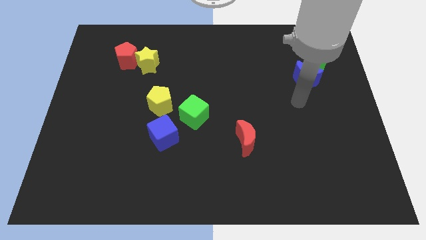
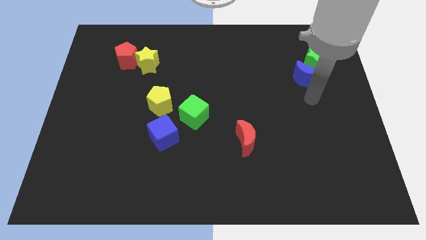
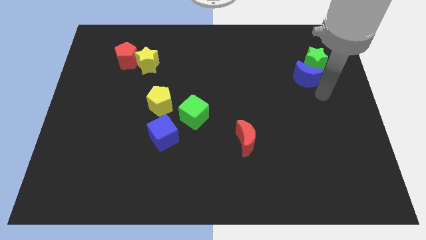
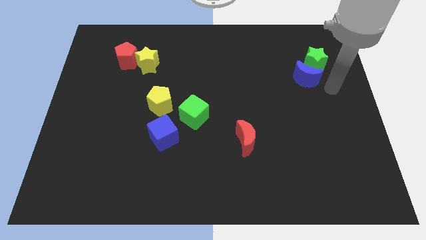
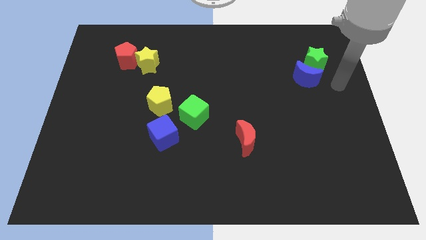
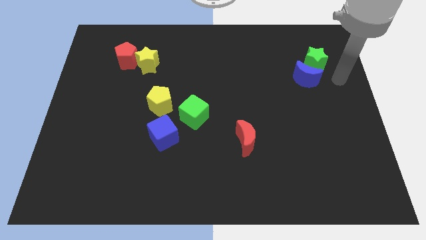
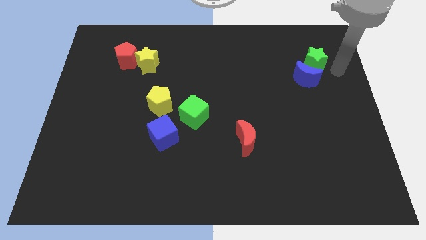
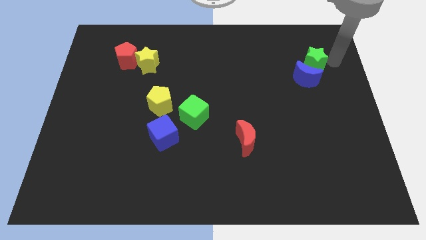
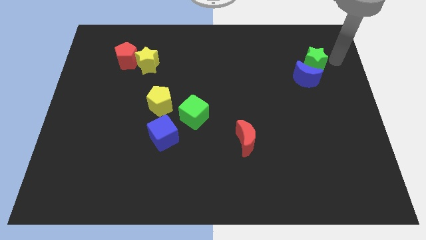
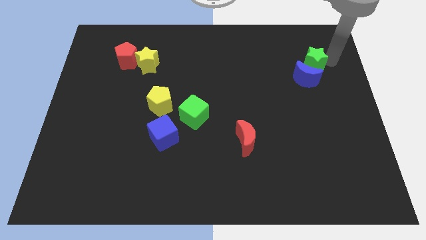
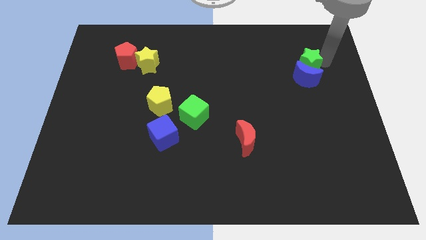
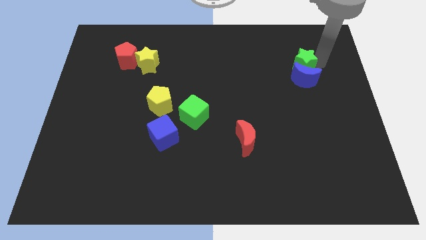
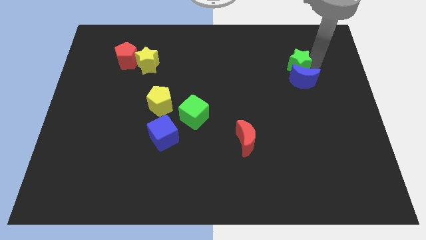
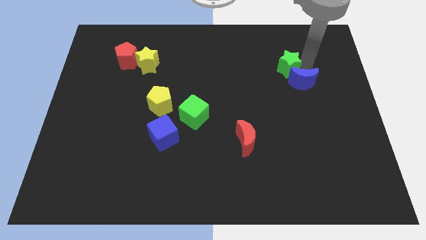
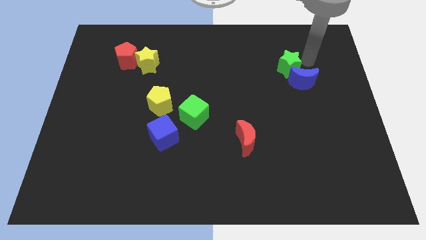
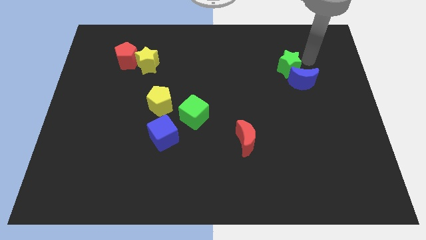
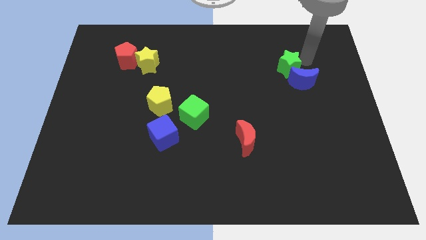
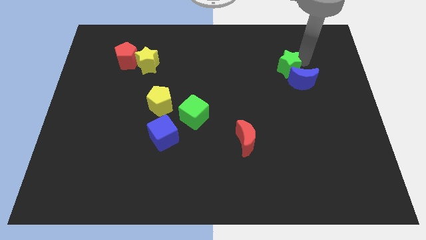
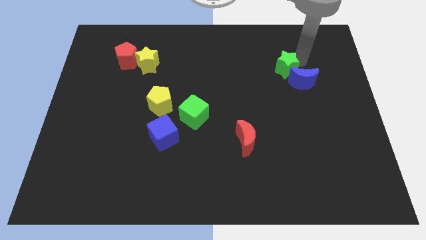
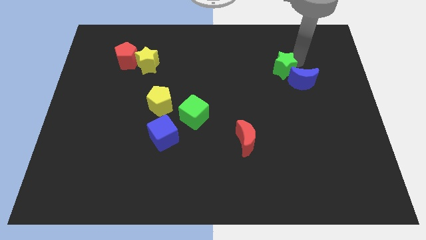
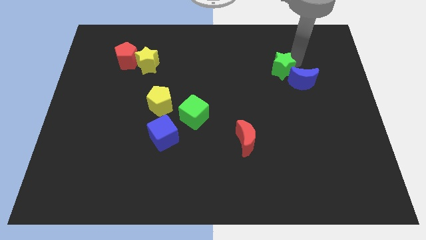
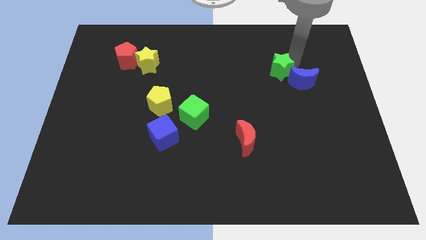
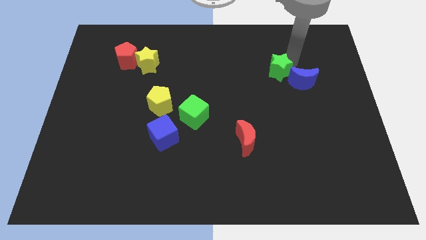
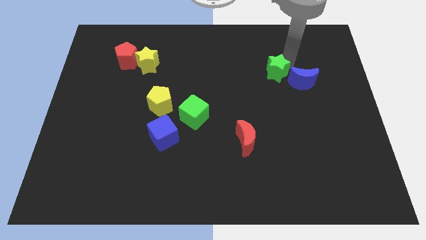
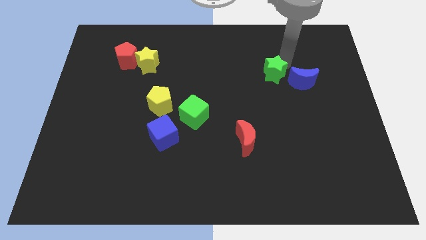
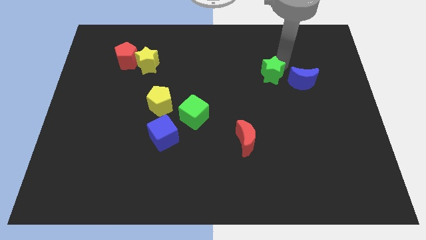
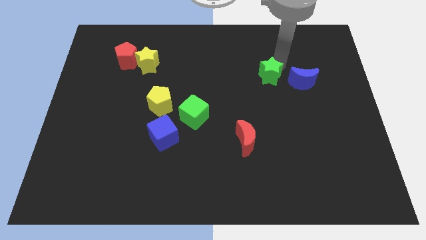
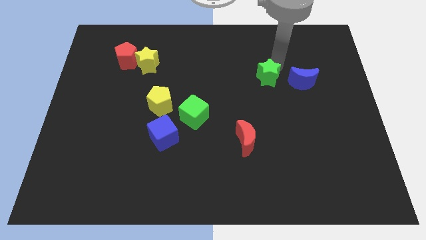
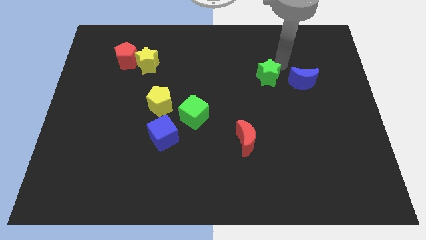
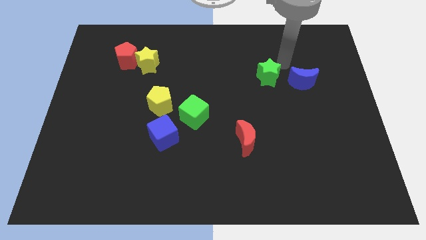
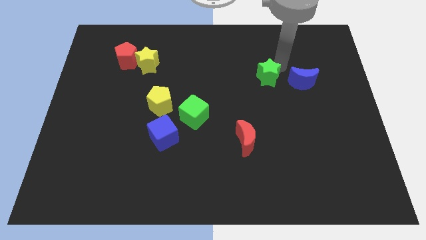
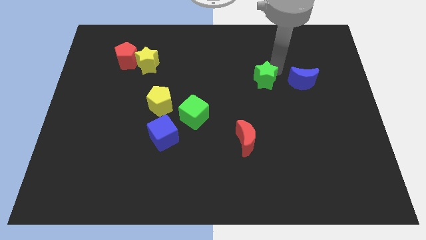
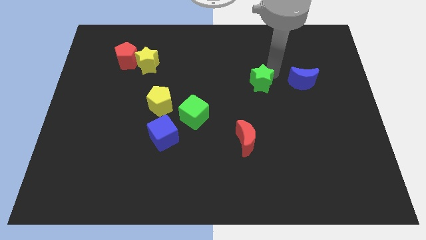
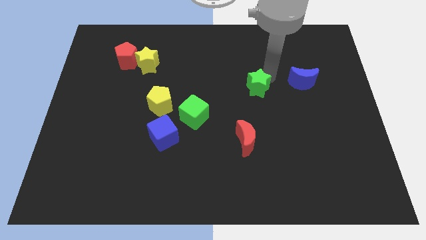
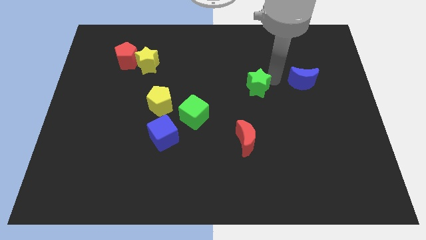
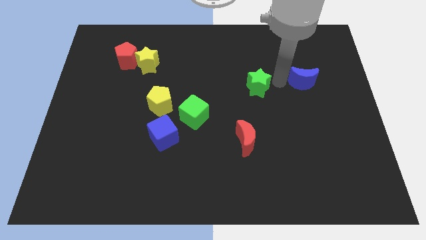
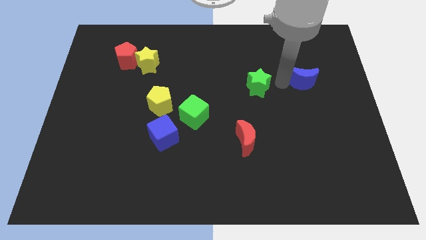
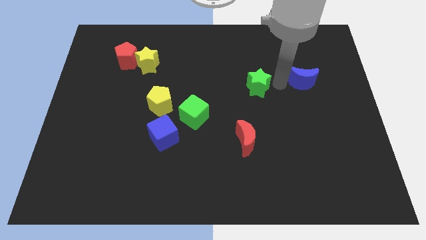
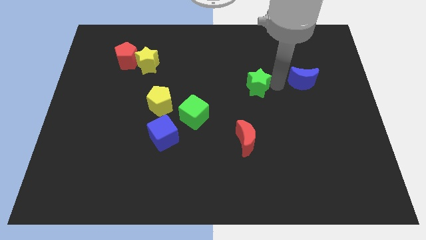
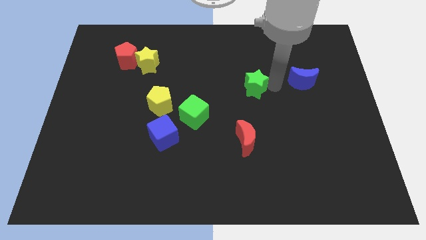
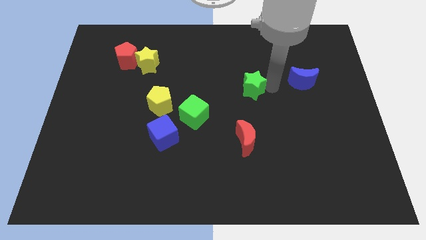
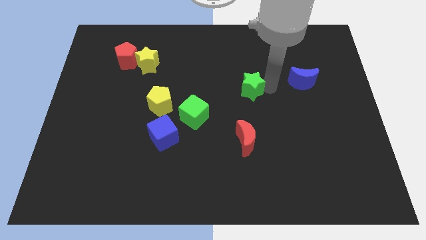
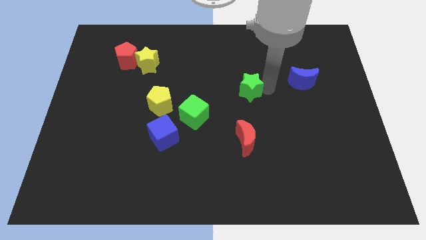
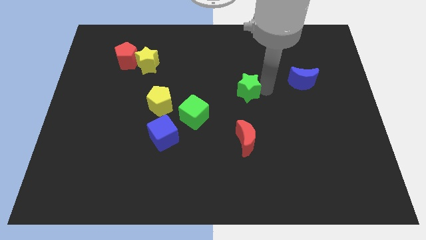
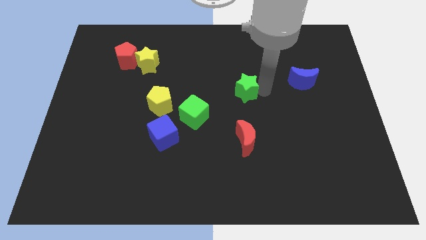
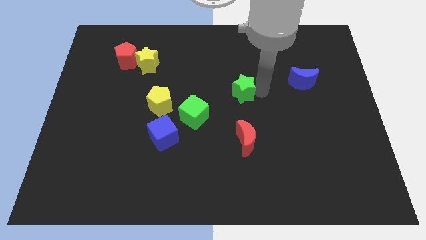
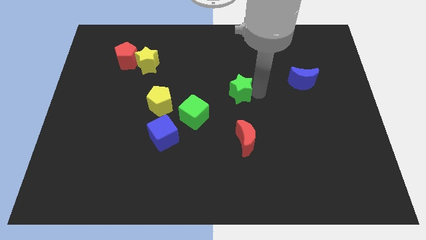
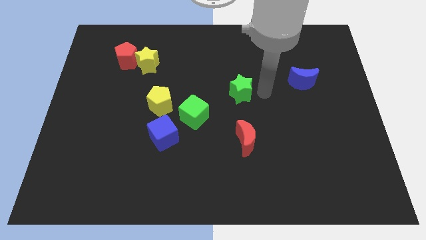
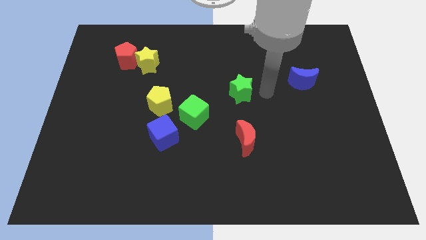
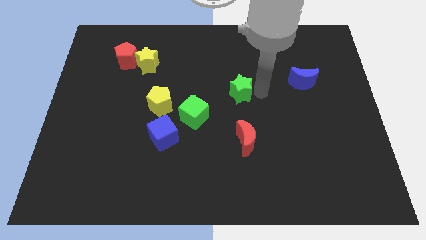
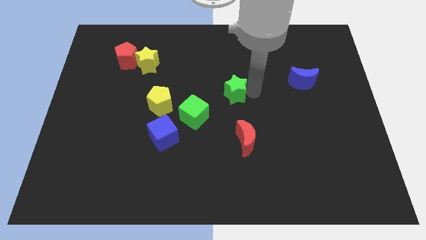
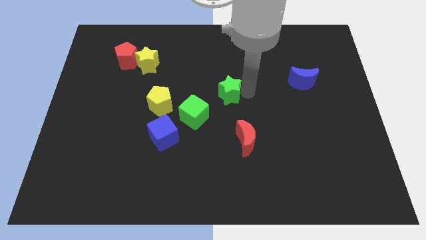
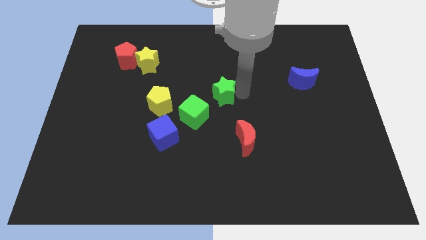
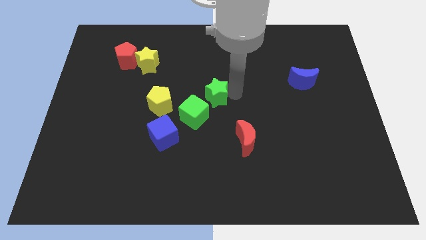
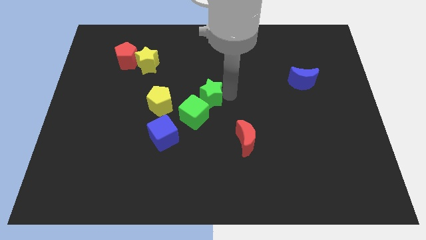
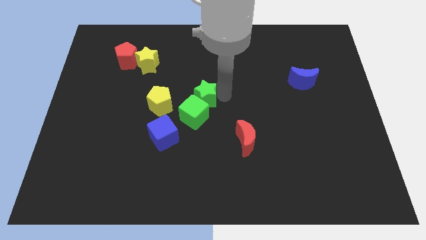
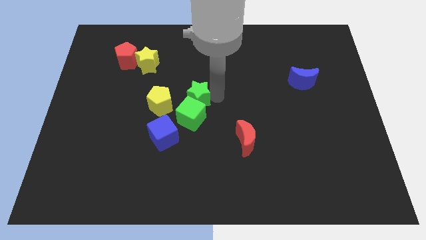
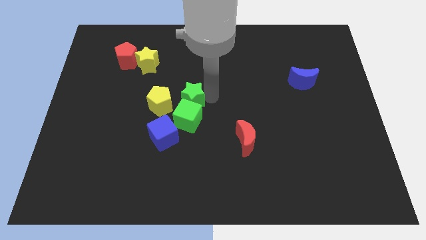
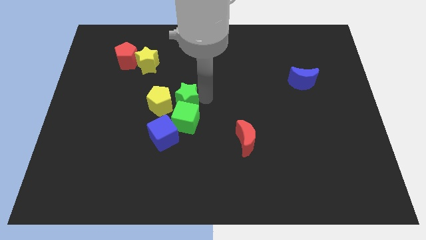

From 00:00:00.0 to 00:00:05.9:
slide the green star towards the yellow pentagon
